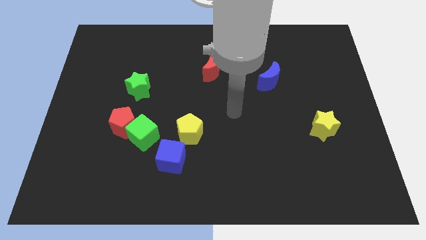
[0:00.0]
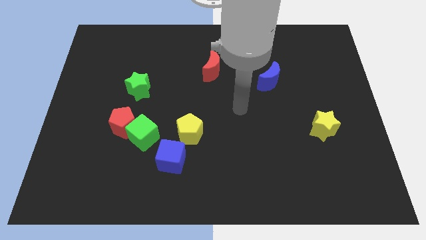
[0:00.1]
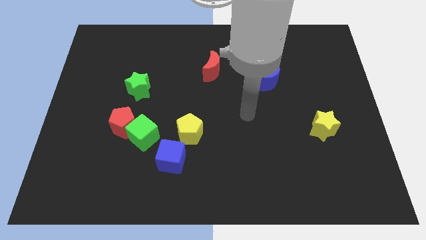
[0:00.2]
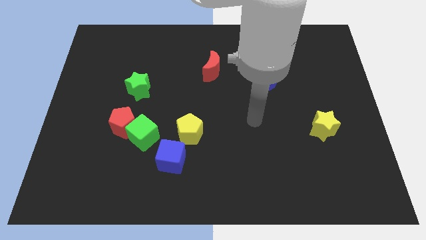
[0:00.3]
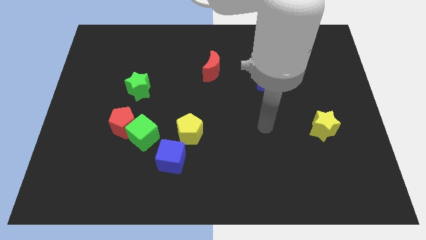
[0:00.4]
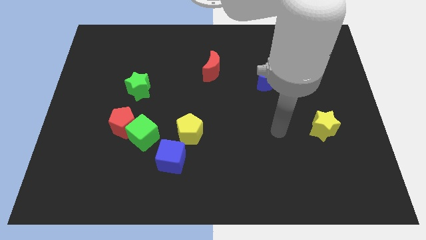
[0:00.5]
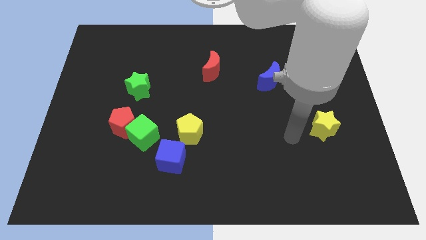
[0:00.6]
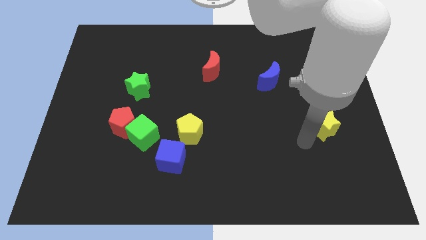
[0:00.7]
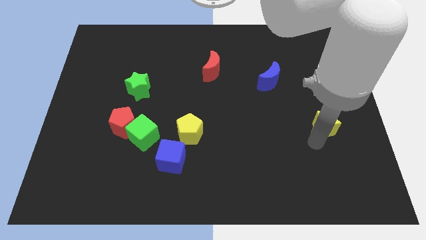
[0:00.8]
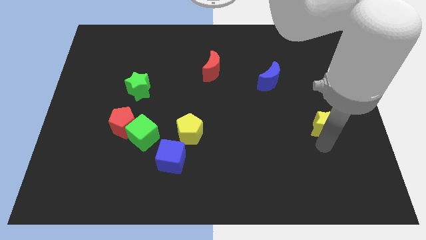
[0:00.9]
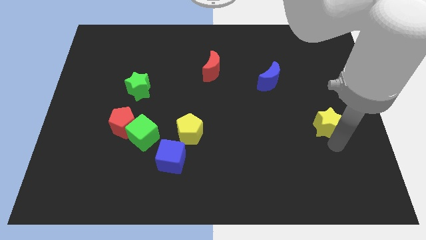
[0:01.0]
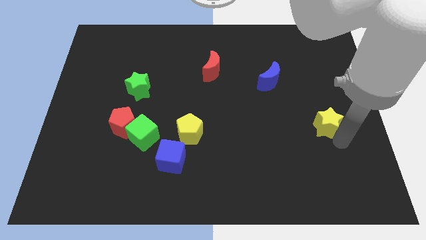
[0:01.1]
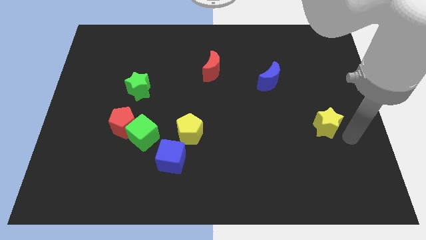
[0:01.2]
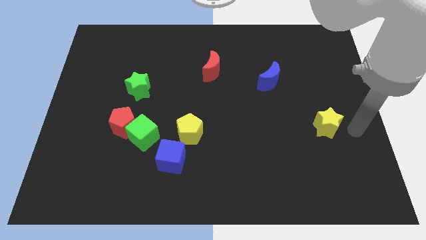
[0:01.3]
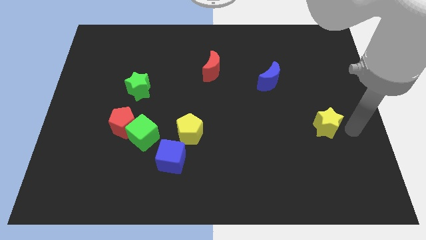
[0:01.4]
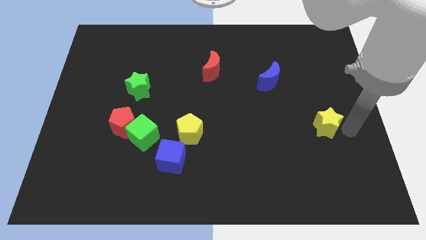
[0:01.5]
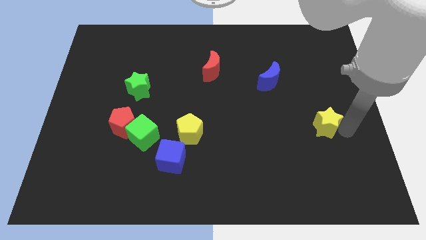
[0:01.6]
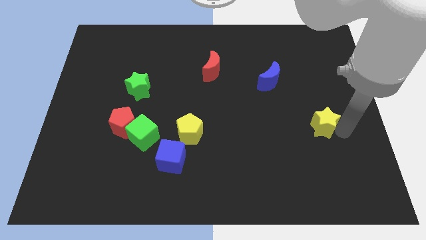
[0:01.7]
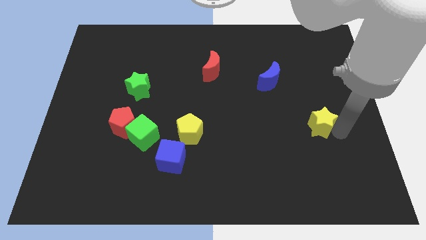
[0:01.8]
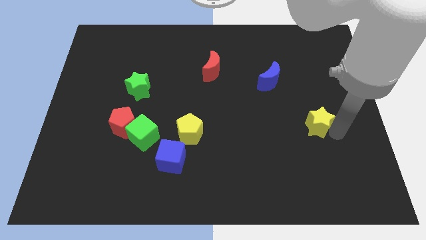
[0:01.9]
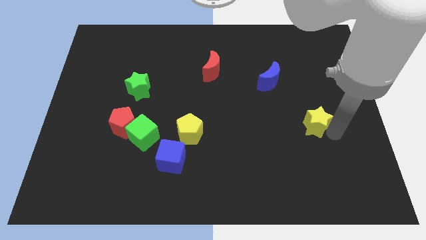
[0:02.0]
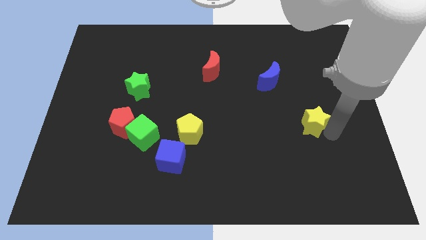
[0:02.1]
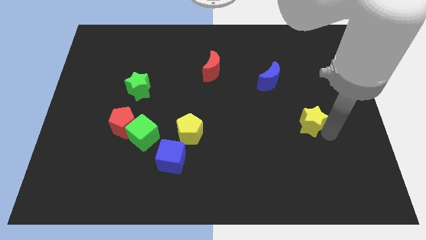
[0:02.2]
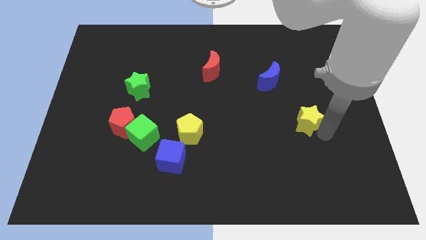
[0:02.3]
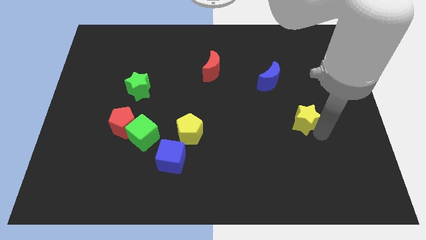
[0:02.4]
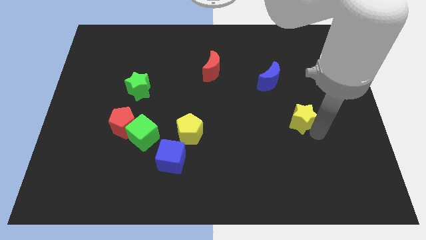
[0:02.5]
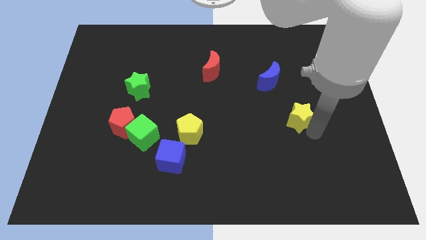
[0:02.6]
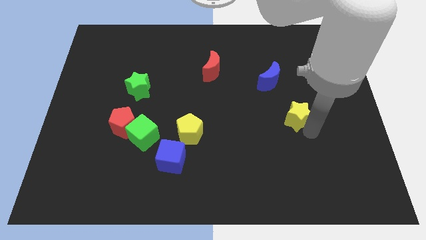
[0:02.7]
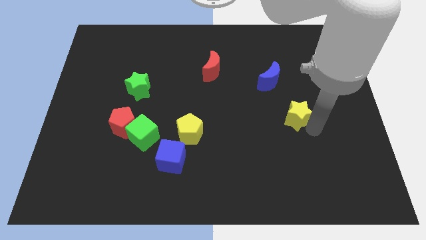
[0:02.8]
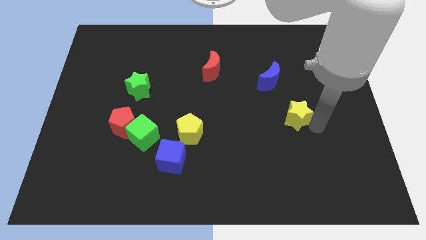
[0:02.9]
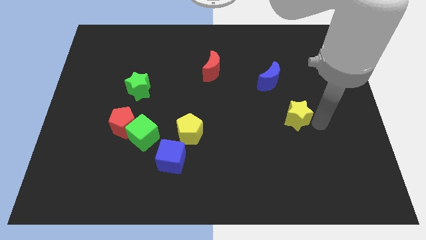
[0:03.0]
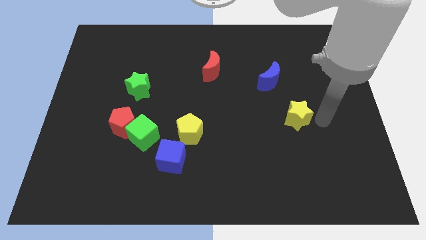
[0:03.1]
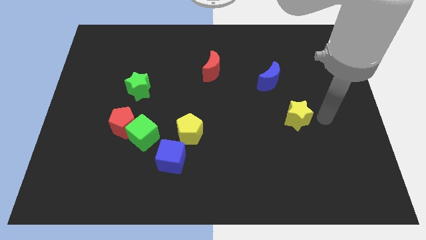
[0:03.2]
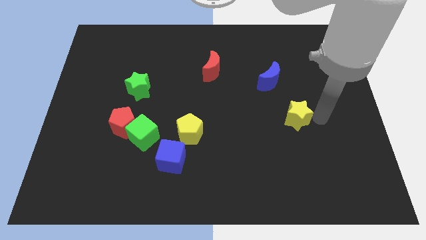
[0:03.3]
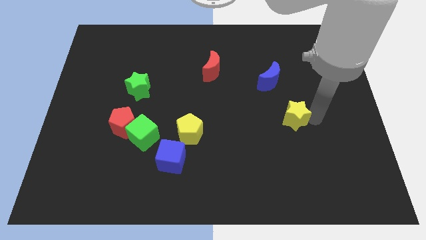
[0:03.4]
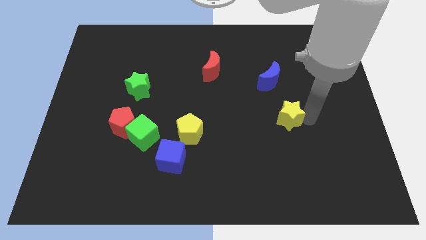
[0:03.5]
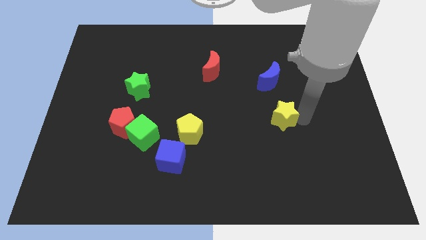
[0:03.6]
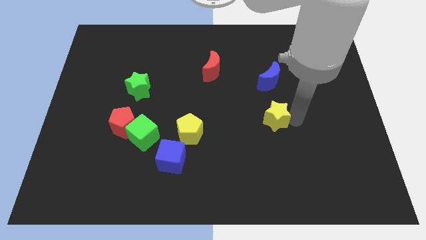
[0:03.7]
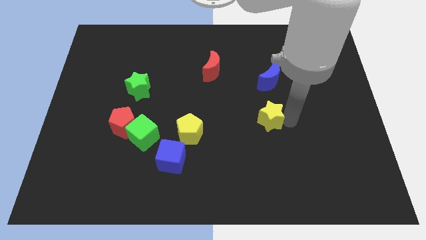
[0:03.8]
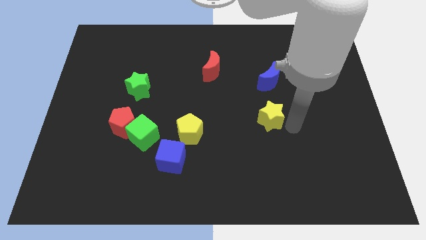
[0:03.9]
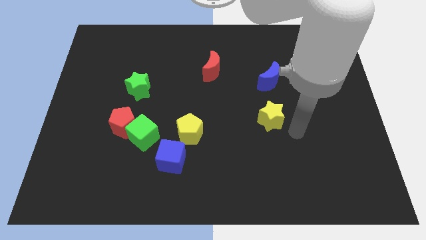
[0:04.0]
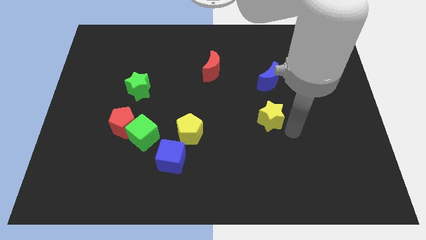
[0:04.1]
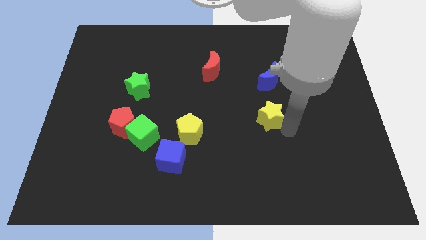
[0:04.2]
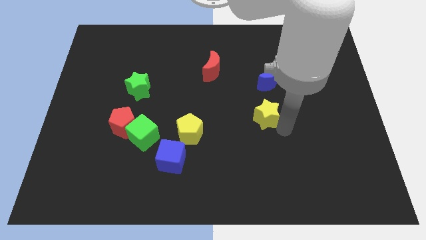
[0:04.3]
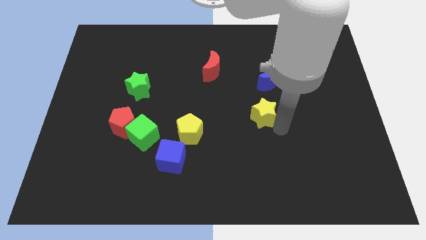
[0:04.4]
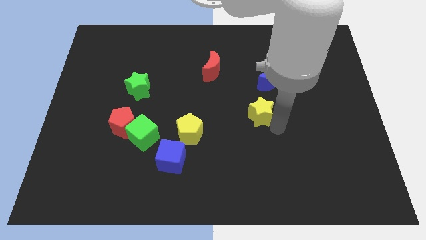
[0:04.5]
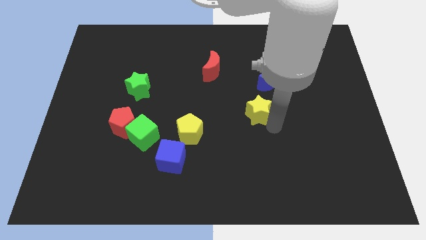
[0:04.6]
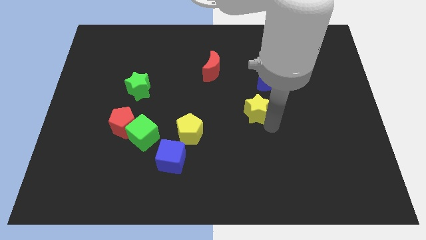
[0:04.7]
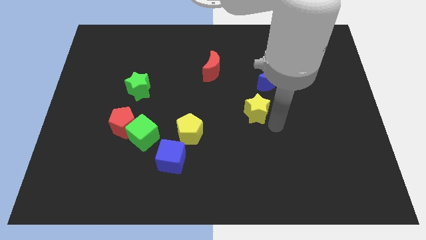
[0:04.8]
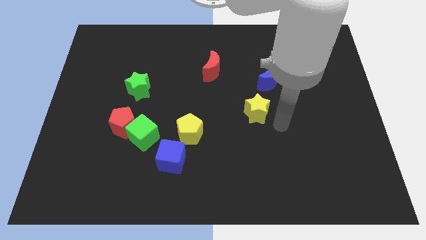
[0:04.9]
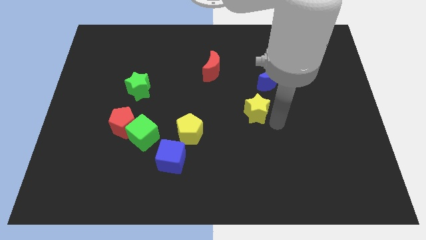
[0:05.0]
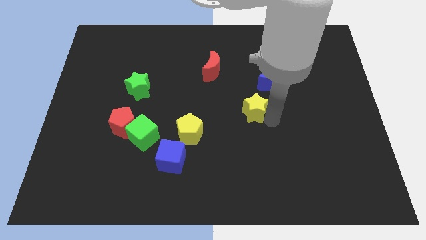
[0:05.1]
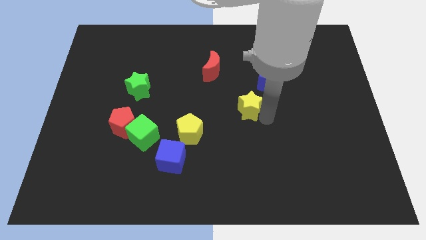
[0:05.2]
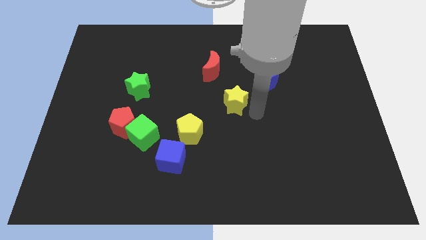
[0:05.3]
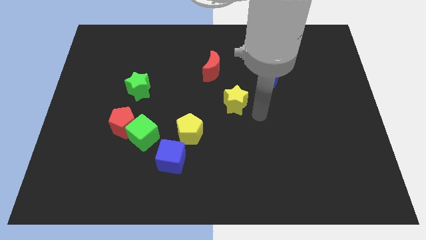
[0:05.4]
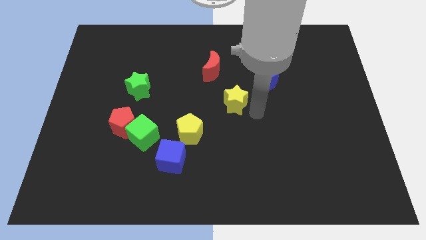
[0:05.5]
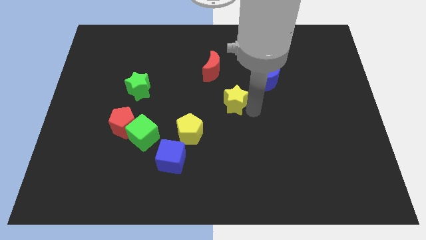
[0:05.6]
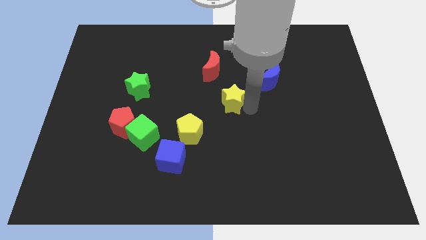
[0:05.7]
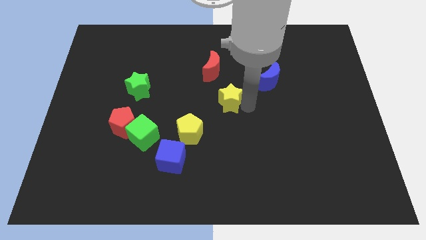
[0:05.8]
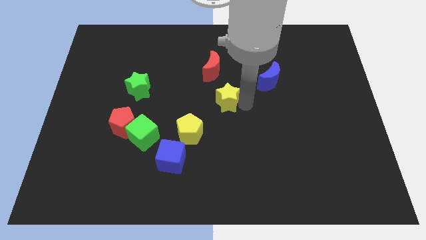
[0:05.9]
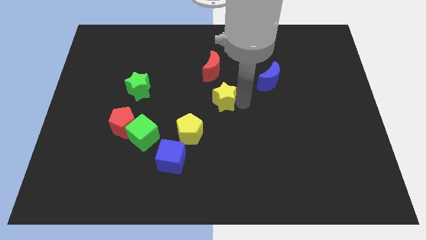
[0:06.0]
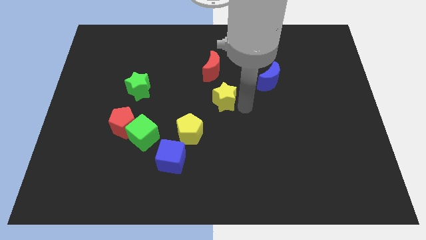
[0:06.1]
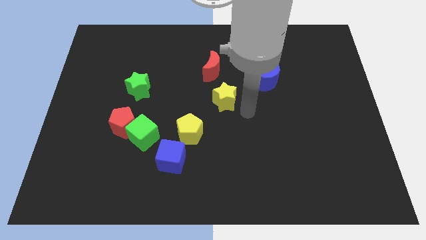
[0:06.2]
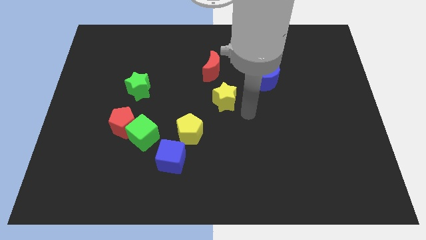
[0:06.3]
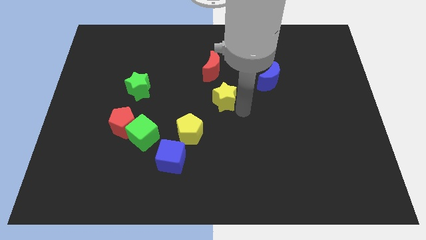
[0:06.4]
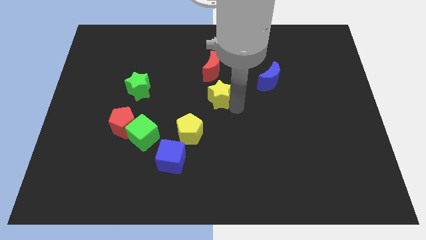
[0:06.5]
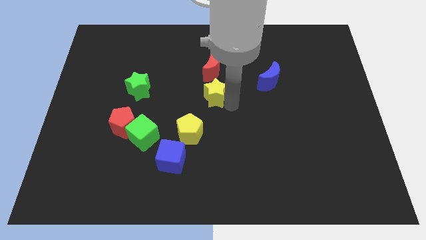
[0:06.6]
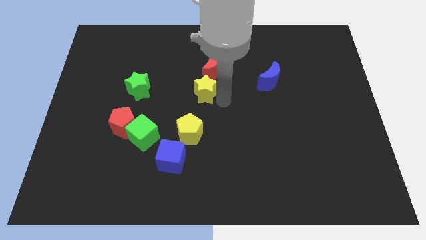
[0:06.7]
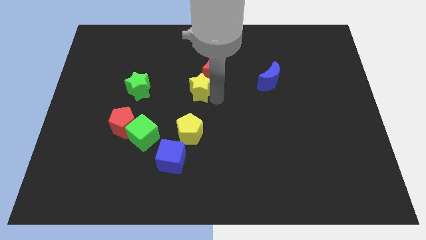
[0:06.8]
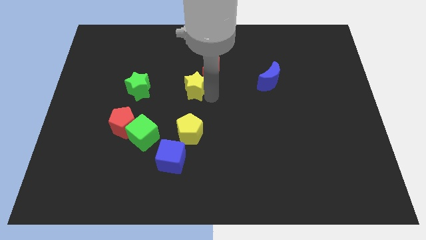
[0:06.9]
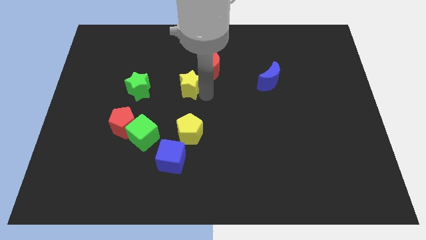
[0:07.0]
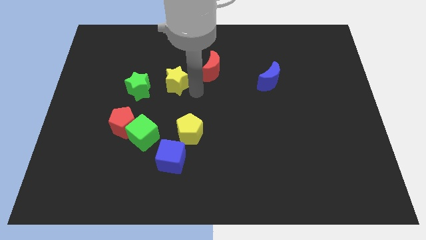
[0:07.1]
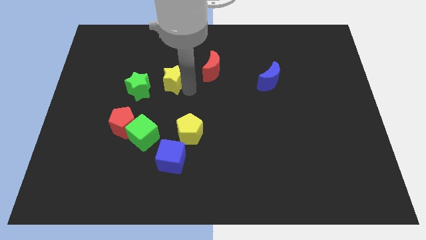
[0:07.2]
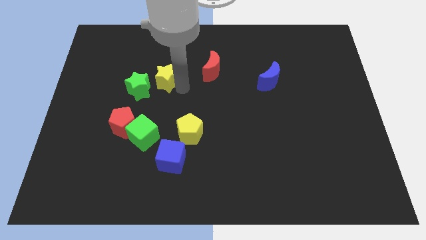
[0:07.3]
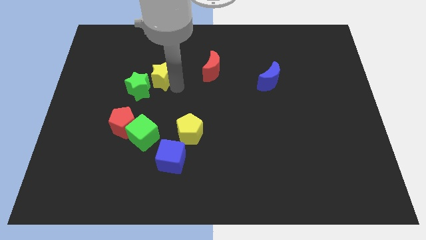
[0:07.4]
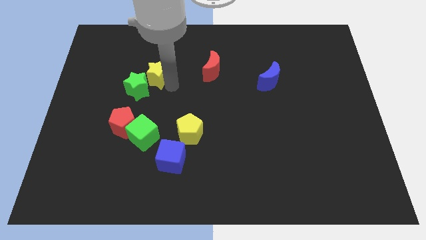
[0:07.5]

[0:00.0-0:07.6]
slide the yellow star to the top of the green star
